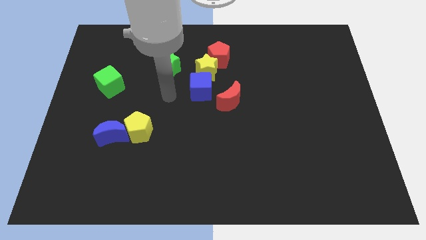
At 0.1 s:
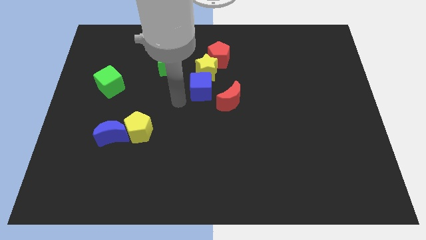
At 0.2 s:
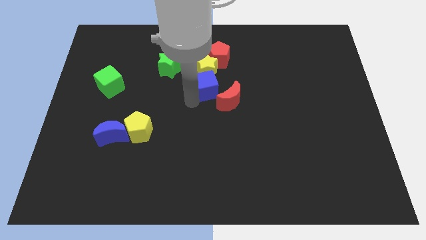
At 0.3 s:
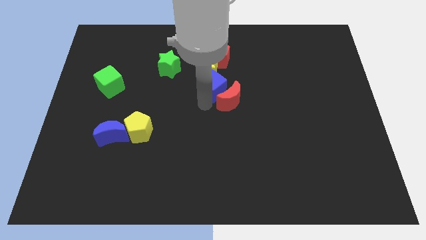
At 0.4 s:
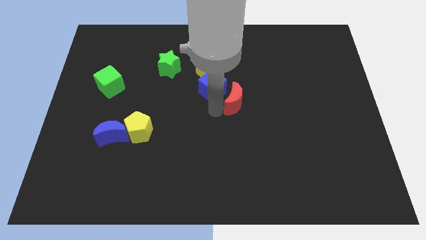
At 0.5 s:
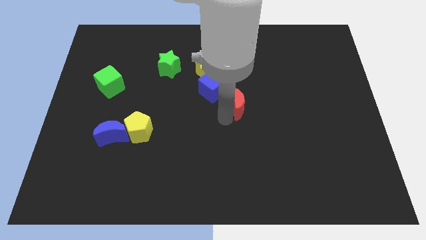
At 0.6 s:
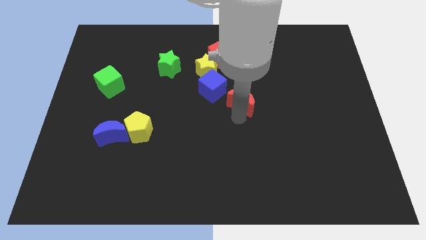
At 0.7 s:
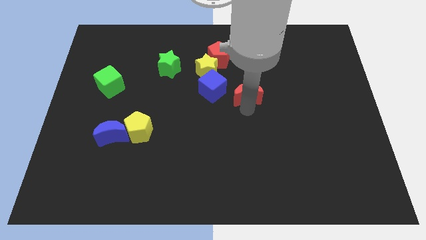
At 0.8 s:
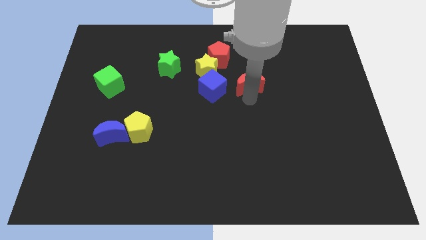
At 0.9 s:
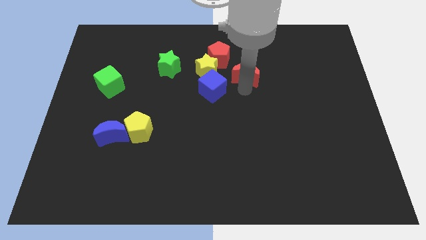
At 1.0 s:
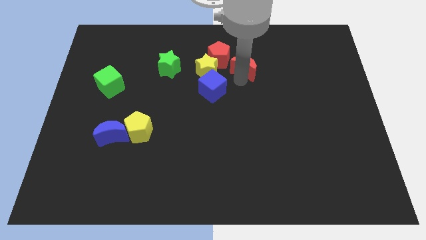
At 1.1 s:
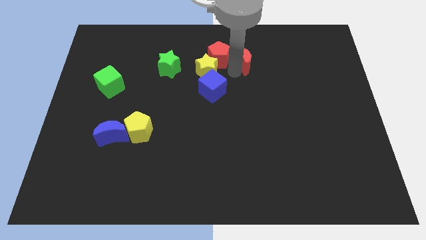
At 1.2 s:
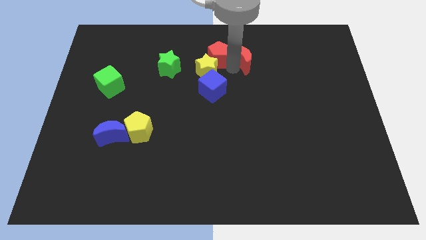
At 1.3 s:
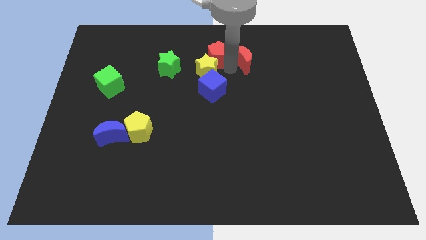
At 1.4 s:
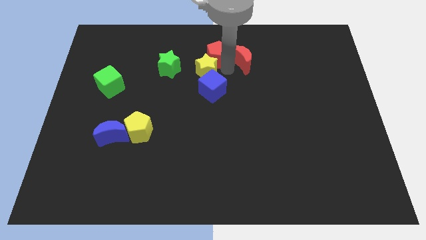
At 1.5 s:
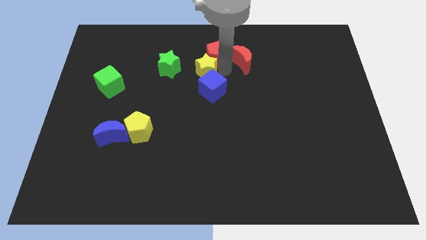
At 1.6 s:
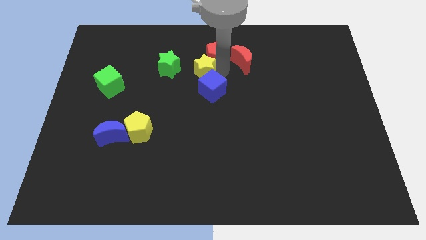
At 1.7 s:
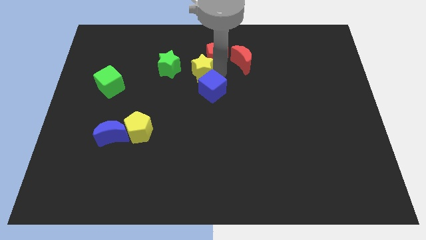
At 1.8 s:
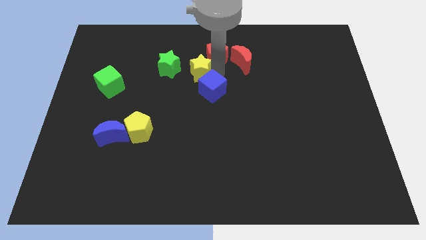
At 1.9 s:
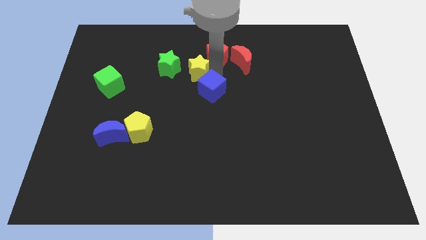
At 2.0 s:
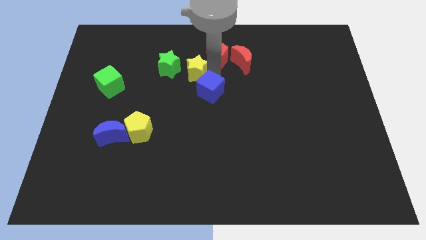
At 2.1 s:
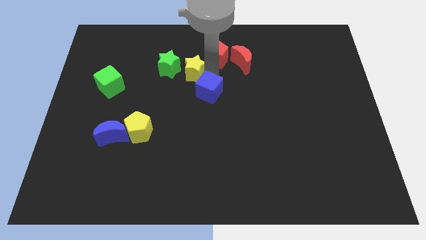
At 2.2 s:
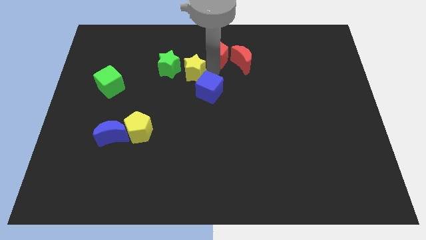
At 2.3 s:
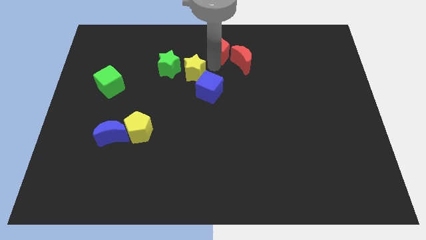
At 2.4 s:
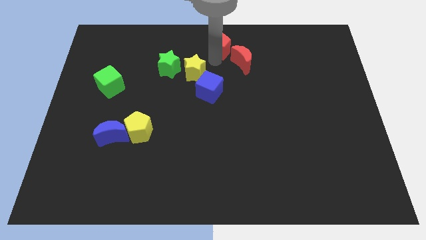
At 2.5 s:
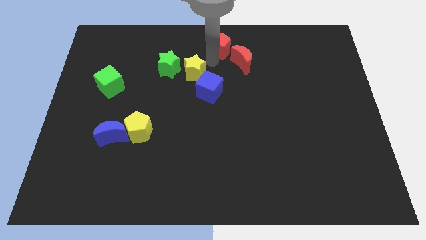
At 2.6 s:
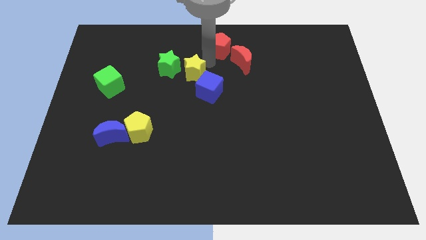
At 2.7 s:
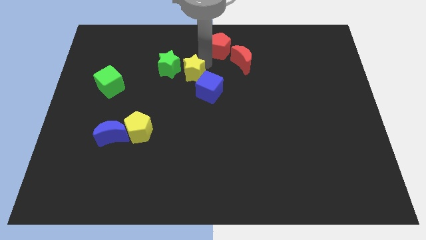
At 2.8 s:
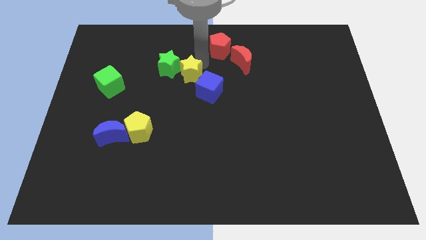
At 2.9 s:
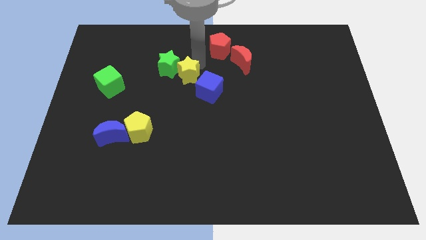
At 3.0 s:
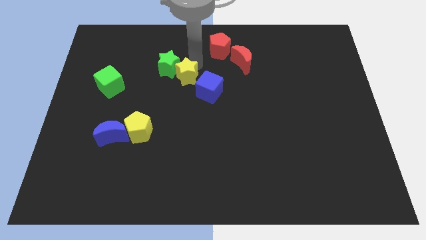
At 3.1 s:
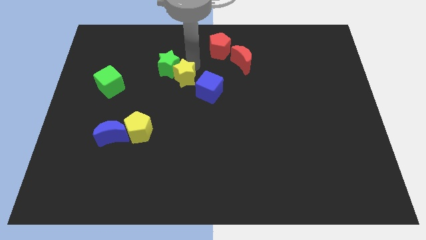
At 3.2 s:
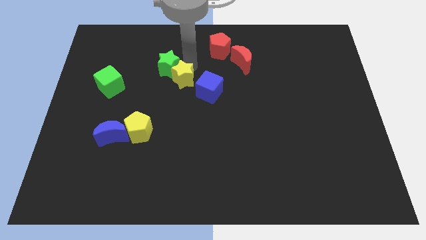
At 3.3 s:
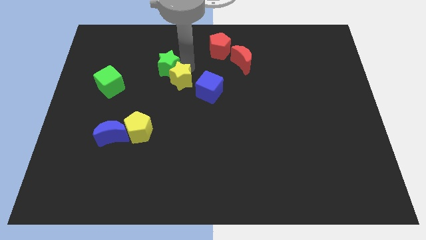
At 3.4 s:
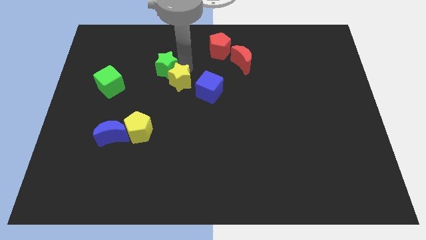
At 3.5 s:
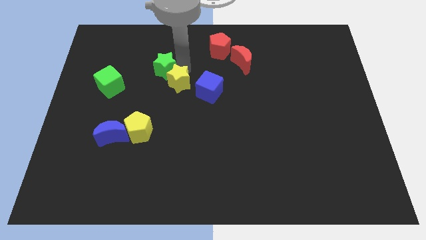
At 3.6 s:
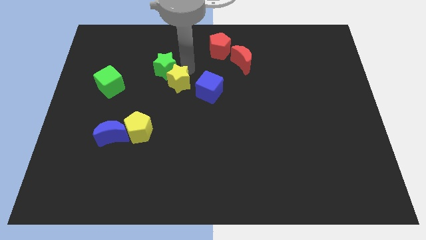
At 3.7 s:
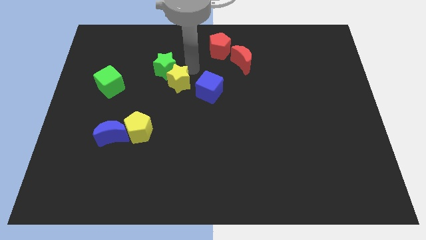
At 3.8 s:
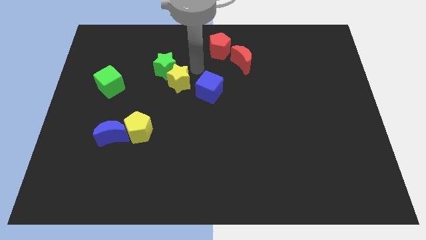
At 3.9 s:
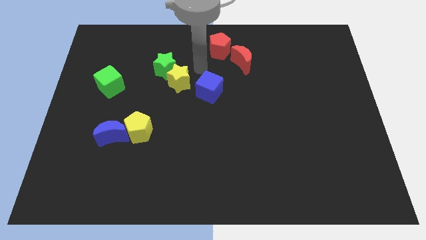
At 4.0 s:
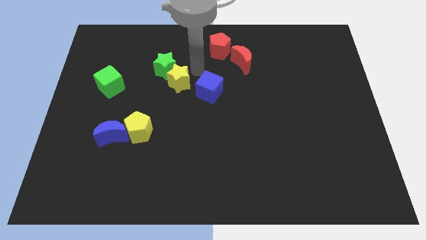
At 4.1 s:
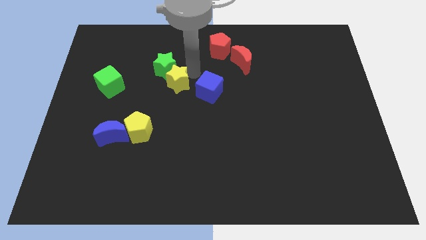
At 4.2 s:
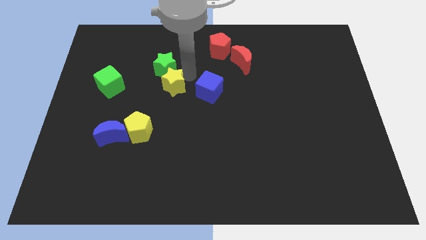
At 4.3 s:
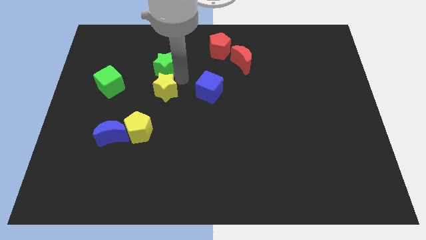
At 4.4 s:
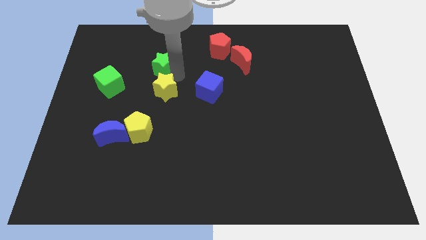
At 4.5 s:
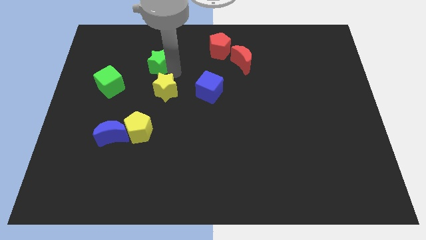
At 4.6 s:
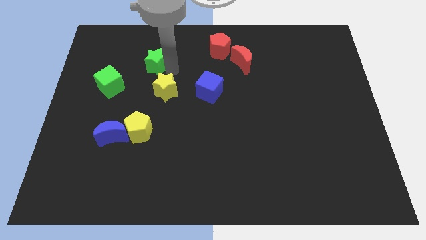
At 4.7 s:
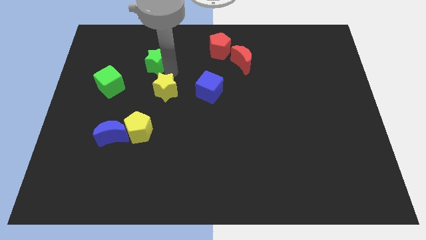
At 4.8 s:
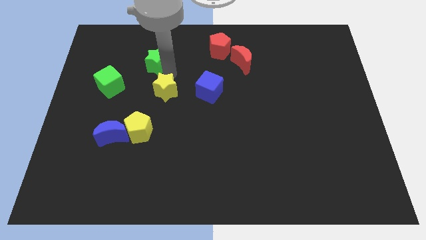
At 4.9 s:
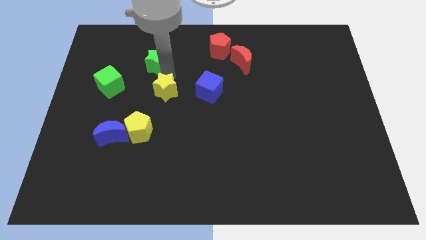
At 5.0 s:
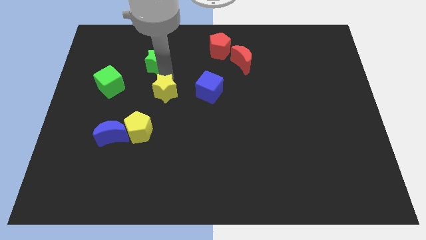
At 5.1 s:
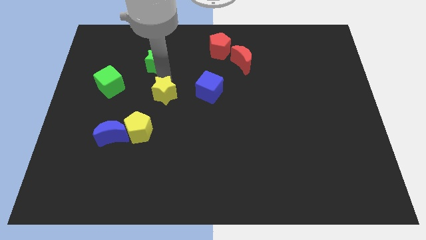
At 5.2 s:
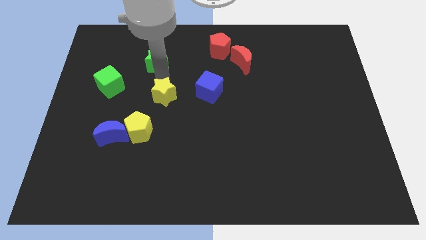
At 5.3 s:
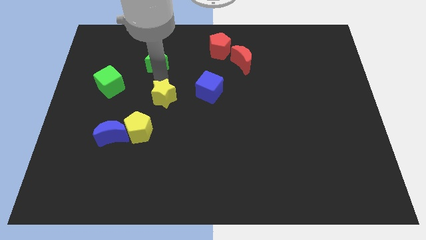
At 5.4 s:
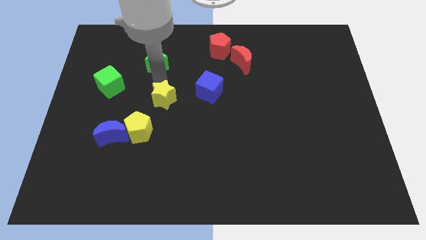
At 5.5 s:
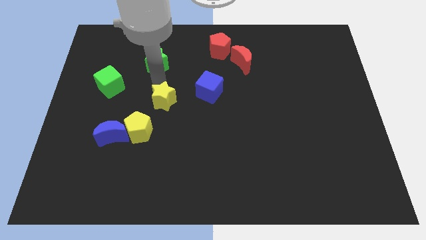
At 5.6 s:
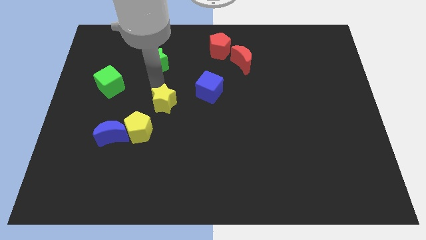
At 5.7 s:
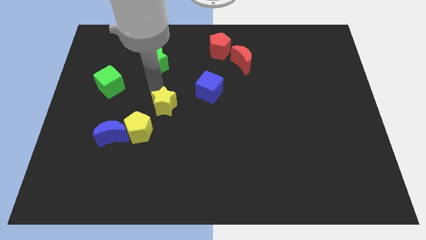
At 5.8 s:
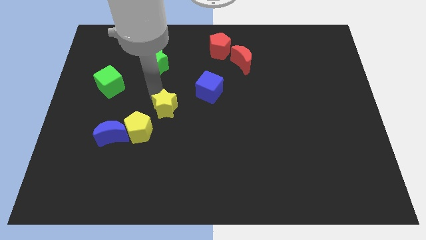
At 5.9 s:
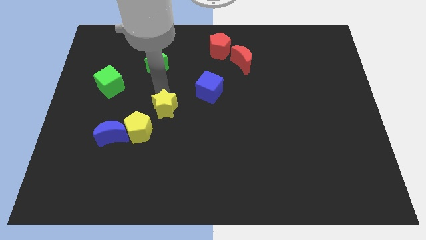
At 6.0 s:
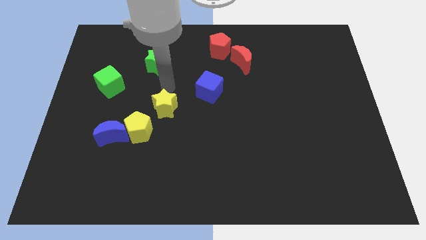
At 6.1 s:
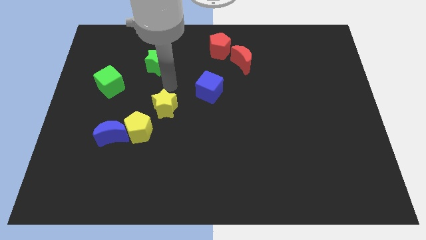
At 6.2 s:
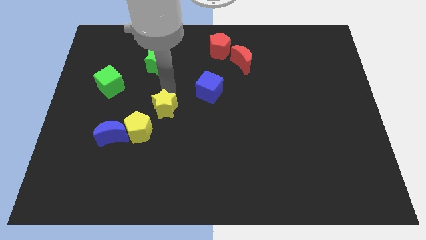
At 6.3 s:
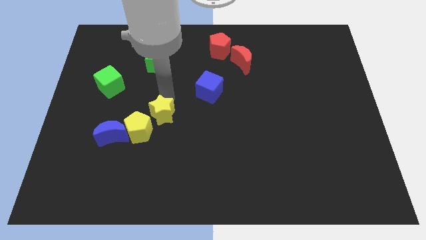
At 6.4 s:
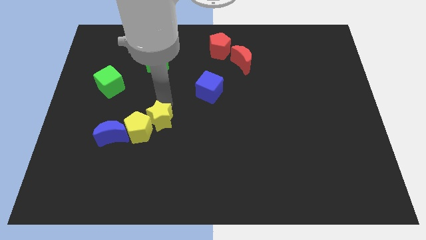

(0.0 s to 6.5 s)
slide the yellow star to the right side of the blue moon

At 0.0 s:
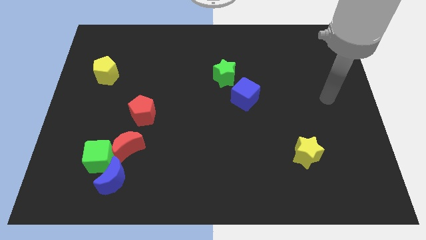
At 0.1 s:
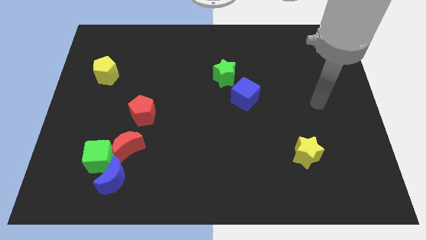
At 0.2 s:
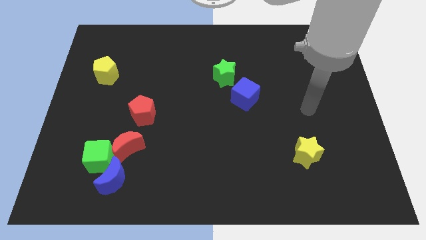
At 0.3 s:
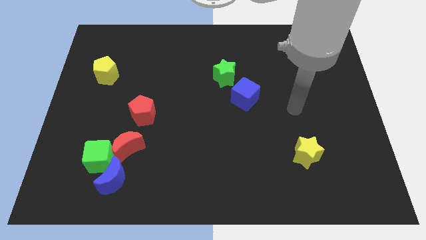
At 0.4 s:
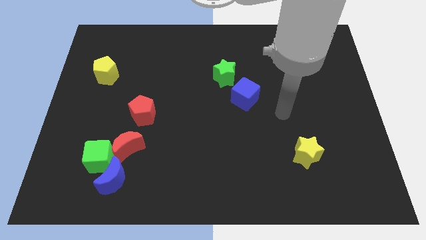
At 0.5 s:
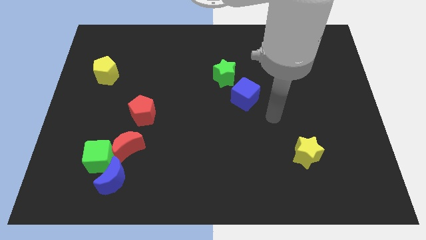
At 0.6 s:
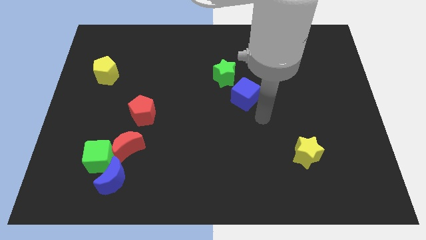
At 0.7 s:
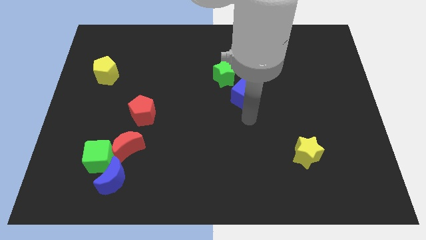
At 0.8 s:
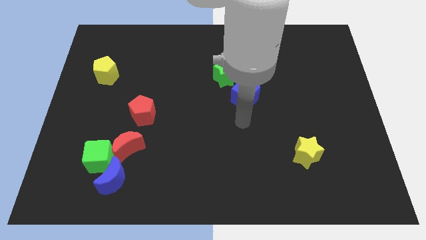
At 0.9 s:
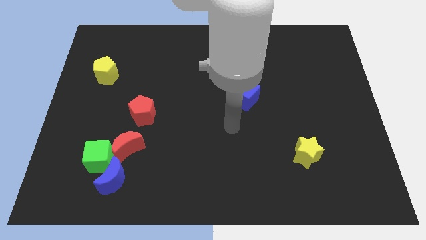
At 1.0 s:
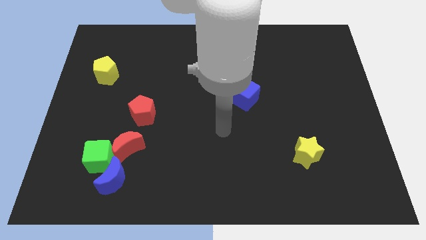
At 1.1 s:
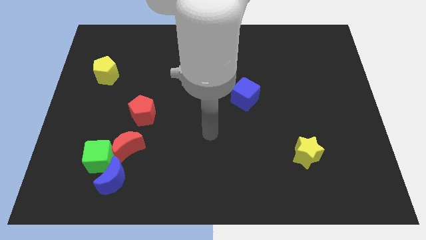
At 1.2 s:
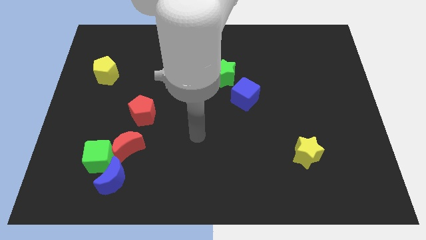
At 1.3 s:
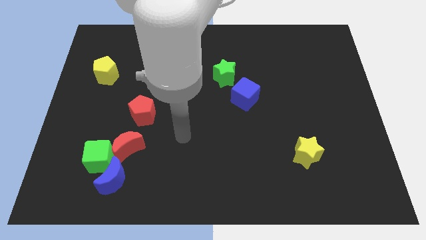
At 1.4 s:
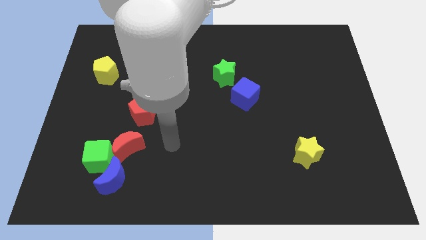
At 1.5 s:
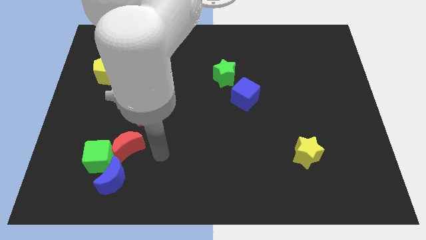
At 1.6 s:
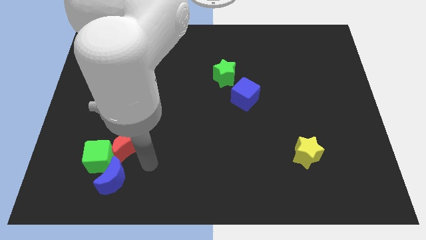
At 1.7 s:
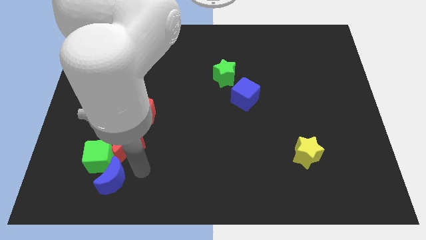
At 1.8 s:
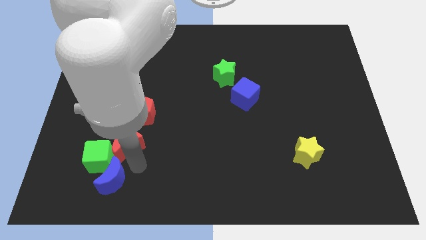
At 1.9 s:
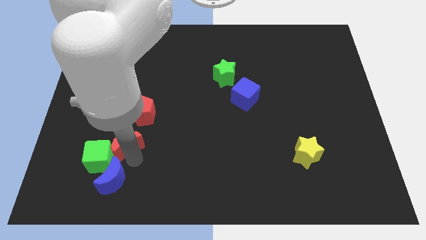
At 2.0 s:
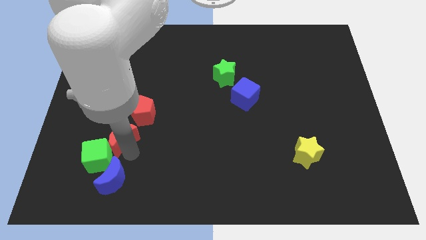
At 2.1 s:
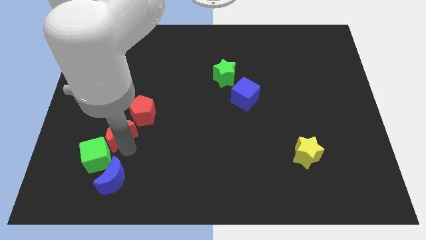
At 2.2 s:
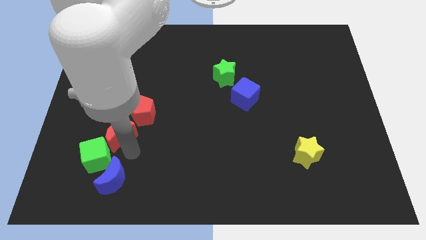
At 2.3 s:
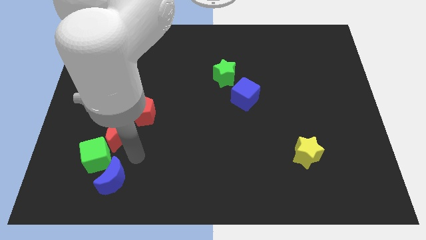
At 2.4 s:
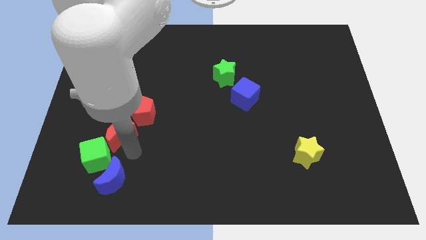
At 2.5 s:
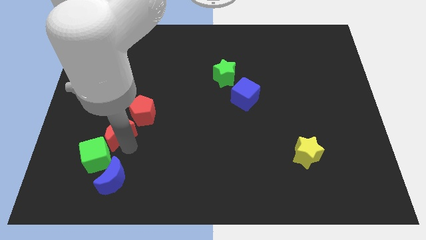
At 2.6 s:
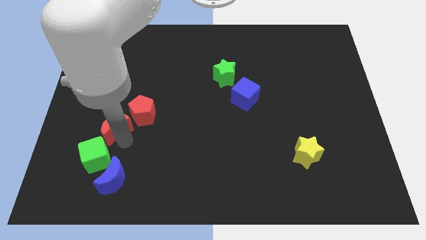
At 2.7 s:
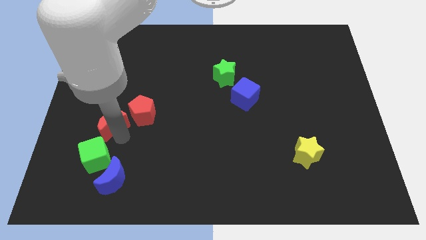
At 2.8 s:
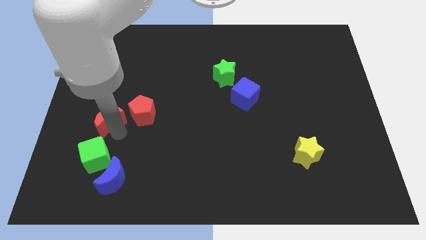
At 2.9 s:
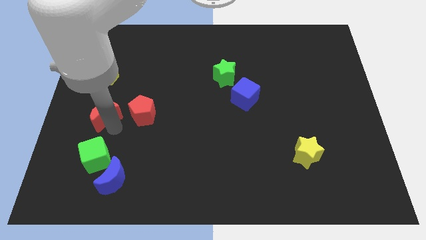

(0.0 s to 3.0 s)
move the red moon to the bottom side of the yellow pentagon
